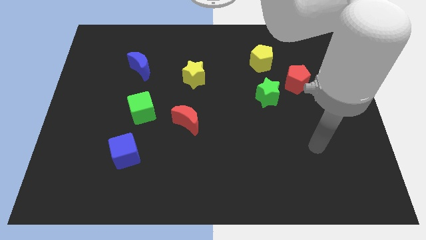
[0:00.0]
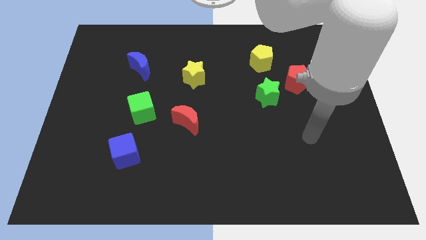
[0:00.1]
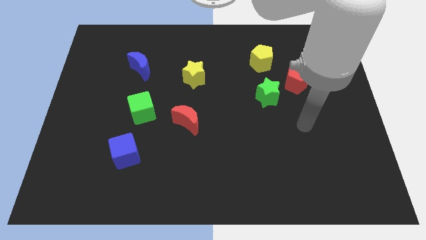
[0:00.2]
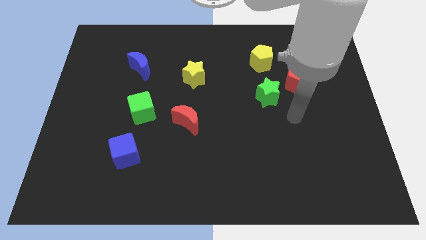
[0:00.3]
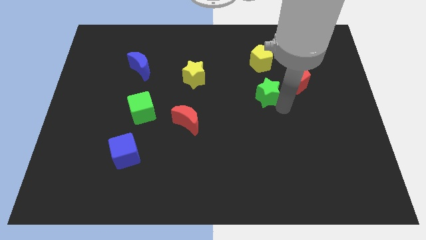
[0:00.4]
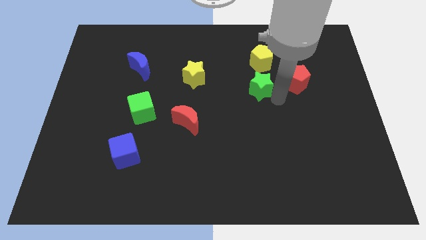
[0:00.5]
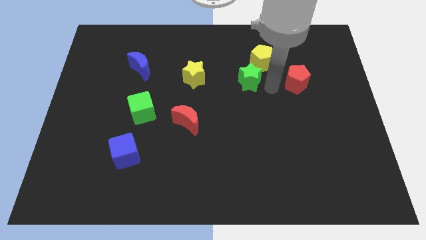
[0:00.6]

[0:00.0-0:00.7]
move the red pentagon away from the green star

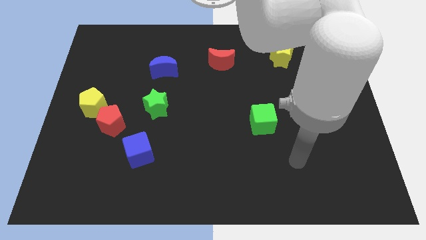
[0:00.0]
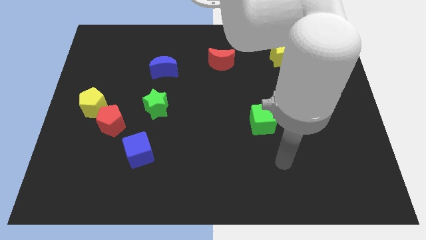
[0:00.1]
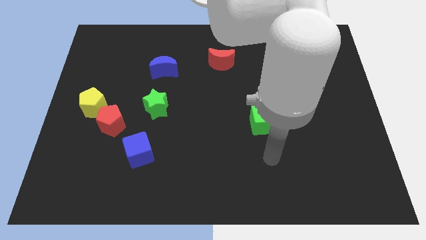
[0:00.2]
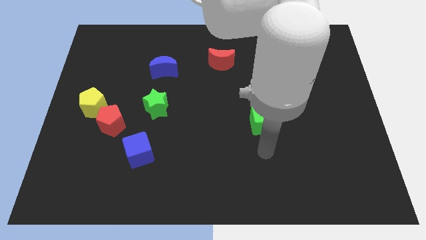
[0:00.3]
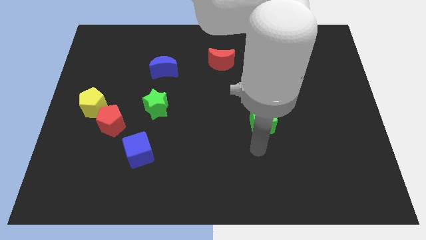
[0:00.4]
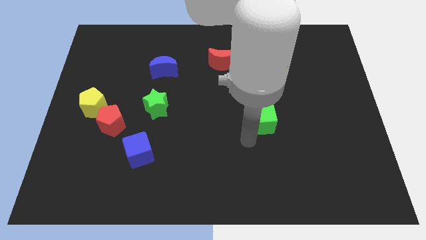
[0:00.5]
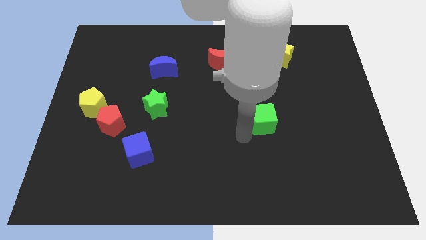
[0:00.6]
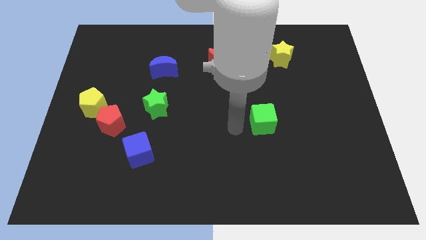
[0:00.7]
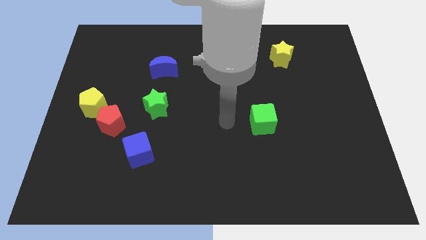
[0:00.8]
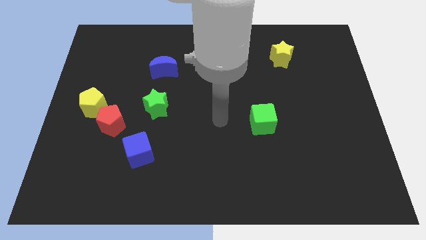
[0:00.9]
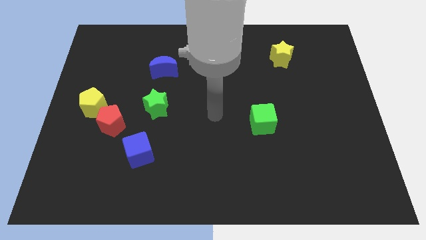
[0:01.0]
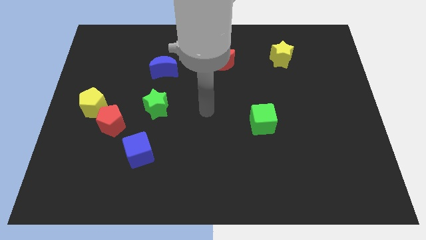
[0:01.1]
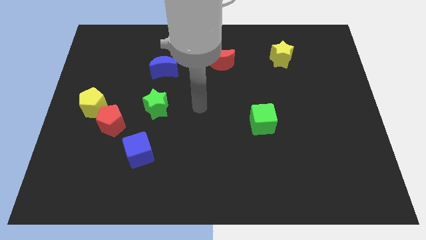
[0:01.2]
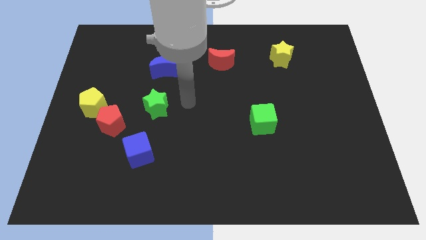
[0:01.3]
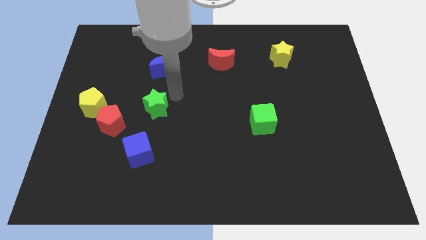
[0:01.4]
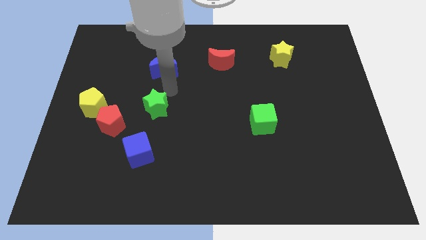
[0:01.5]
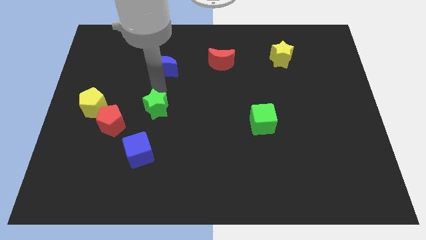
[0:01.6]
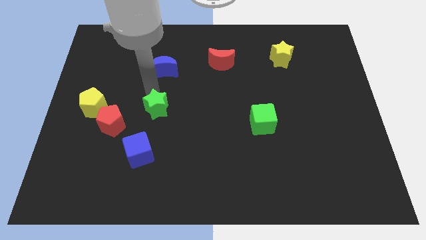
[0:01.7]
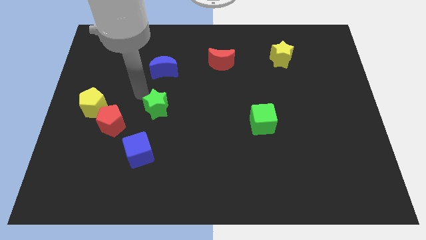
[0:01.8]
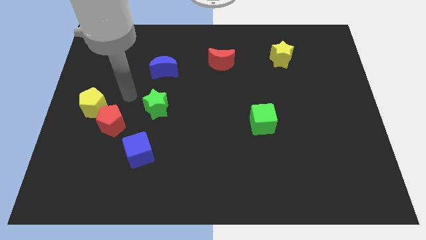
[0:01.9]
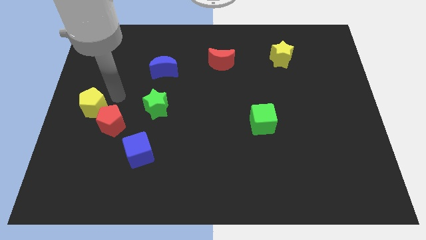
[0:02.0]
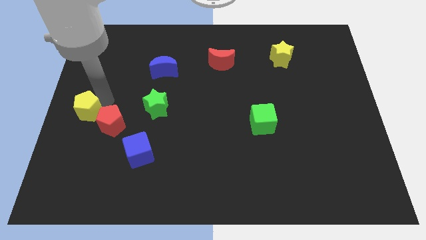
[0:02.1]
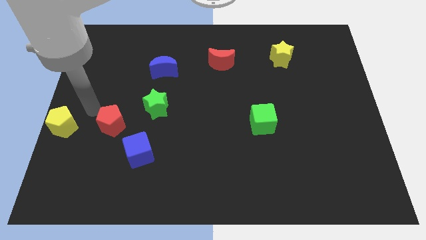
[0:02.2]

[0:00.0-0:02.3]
separate the red pentagon from the yellow pentagon

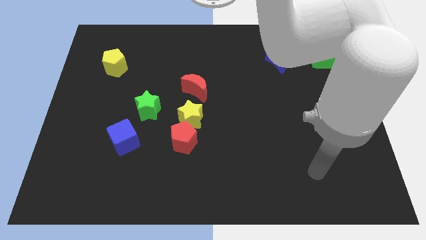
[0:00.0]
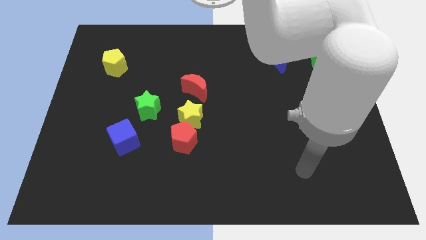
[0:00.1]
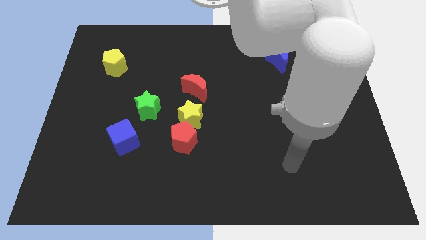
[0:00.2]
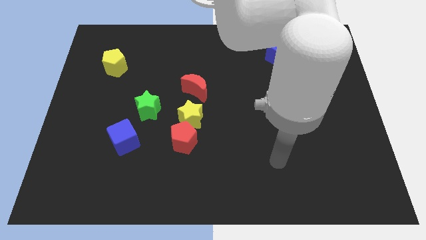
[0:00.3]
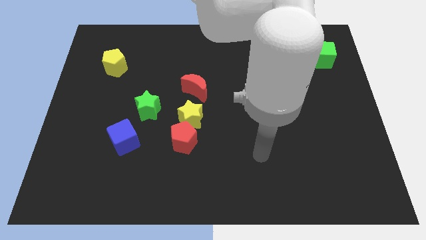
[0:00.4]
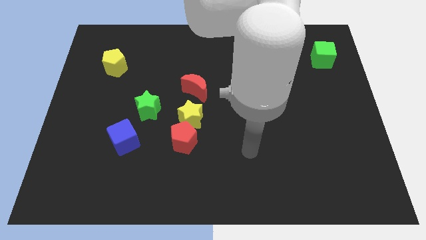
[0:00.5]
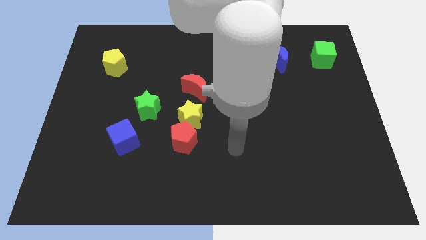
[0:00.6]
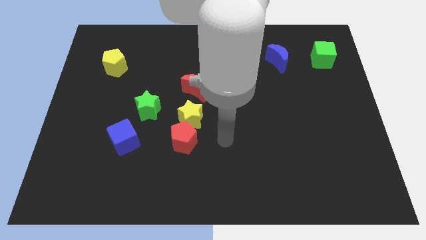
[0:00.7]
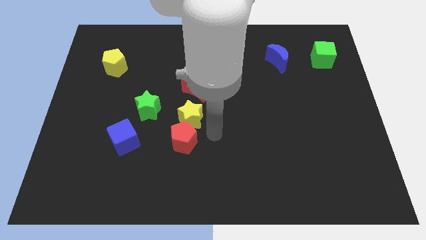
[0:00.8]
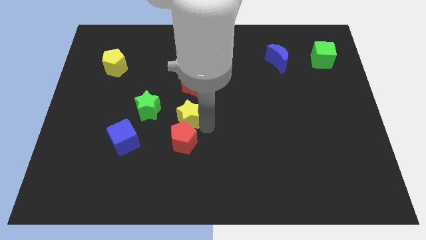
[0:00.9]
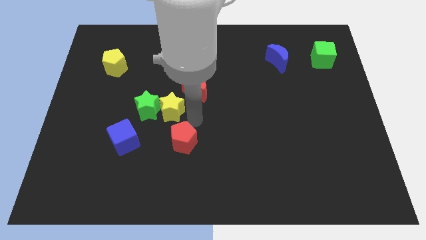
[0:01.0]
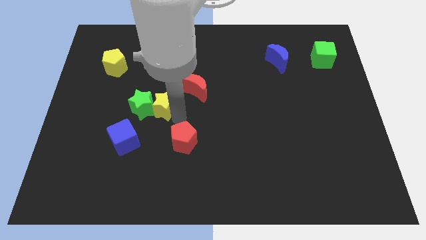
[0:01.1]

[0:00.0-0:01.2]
pull the red pentagon apart from the yellow star

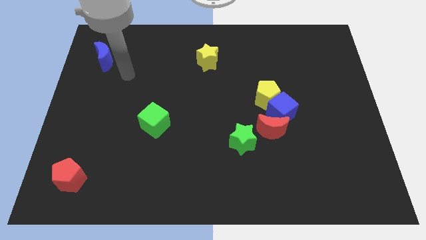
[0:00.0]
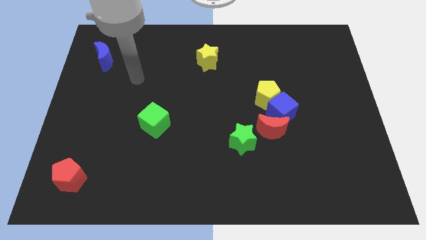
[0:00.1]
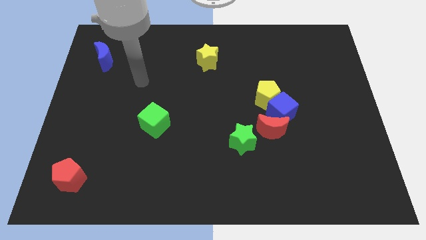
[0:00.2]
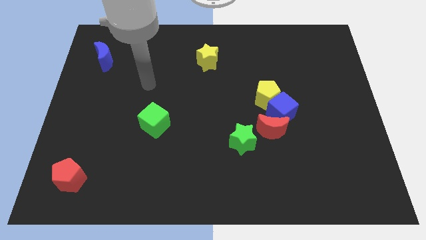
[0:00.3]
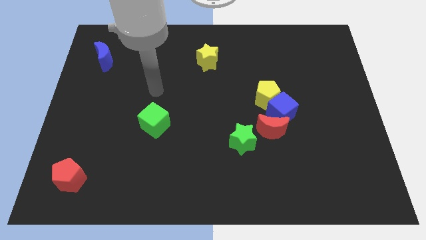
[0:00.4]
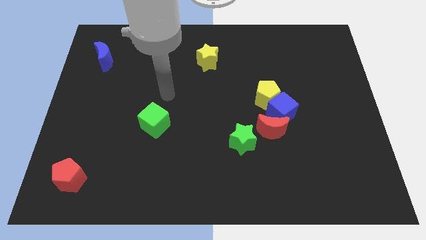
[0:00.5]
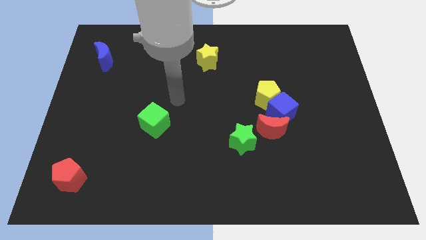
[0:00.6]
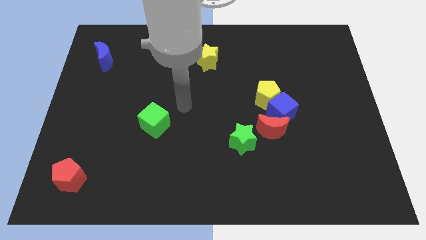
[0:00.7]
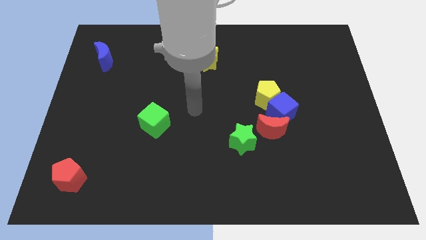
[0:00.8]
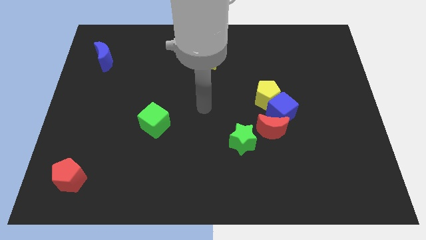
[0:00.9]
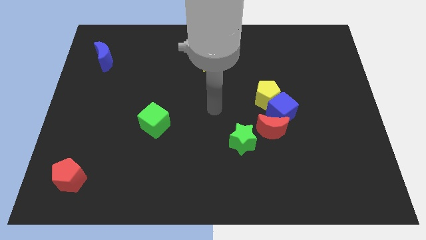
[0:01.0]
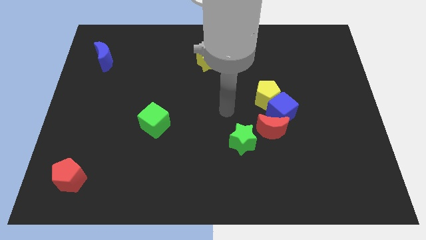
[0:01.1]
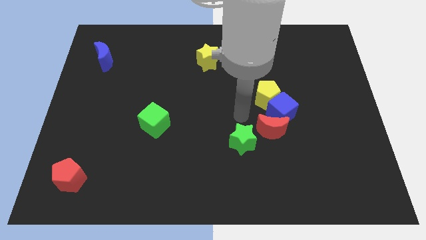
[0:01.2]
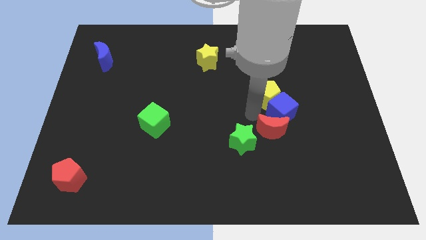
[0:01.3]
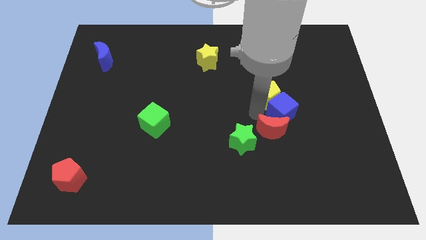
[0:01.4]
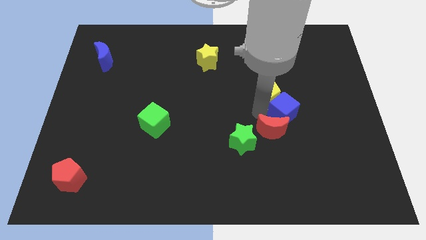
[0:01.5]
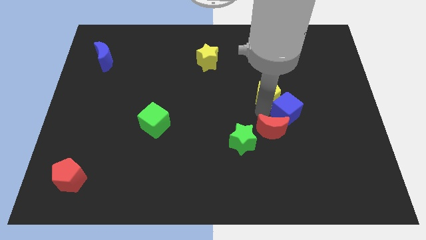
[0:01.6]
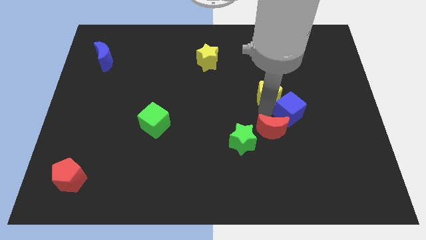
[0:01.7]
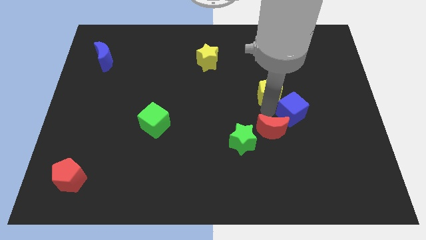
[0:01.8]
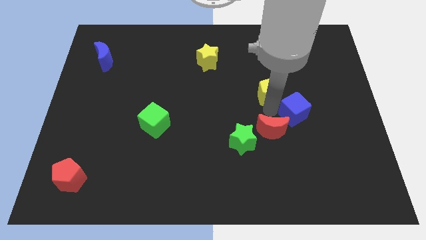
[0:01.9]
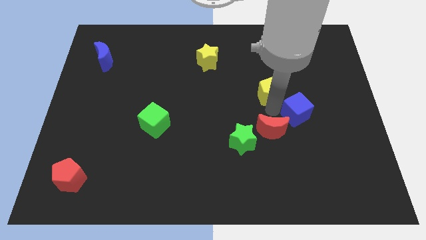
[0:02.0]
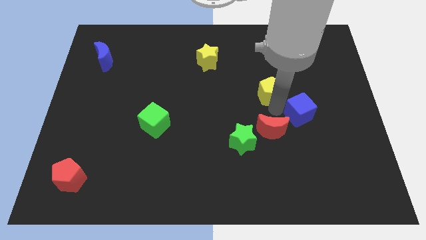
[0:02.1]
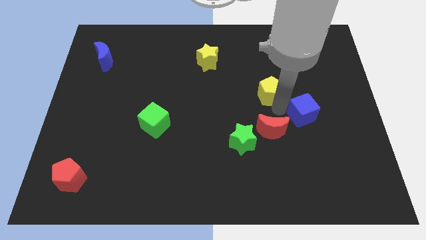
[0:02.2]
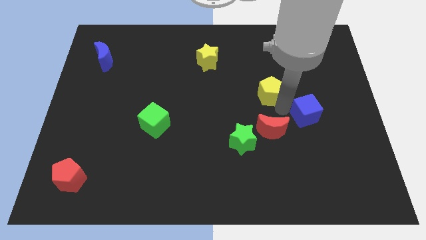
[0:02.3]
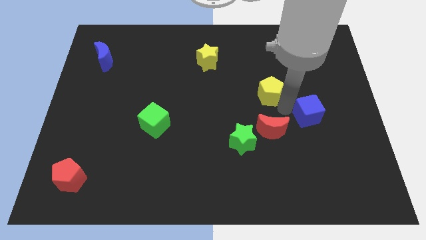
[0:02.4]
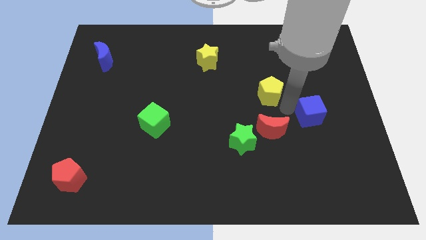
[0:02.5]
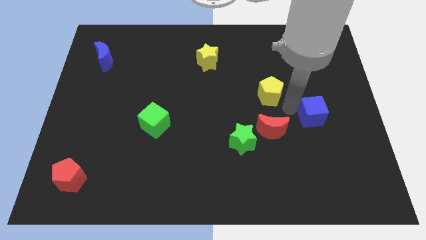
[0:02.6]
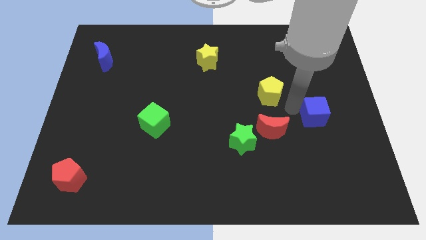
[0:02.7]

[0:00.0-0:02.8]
move the blue cube away from the yellow pentagon and red moon

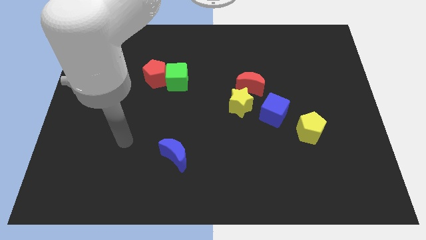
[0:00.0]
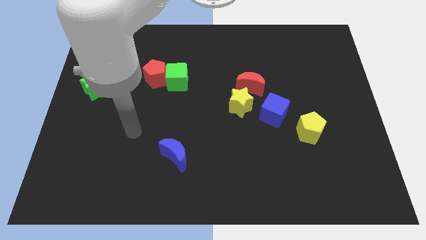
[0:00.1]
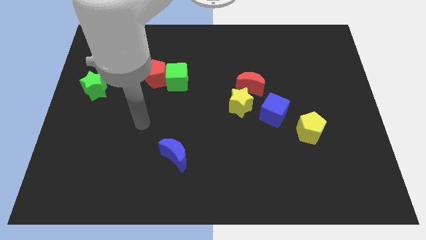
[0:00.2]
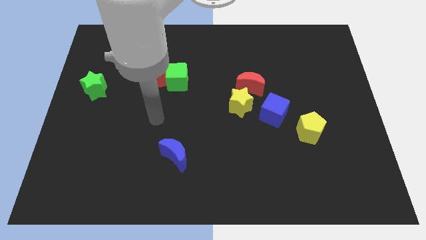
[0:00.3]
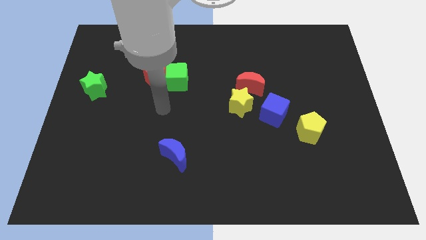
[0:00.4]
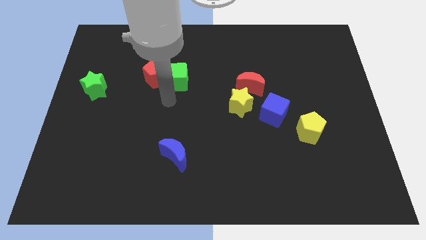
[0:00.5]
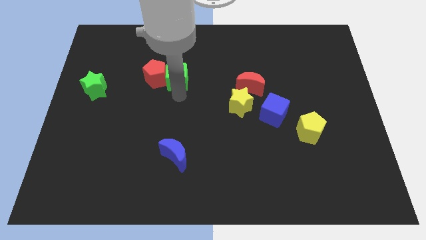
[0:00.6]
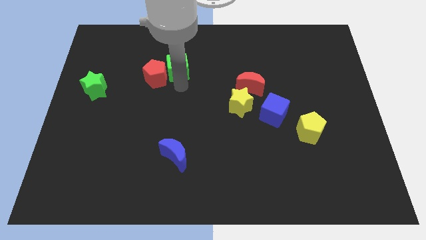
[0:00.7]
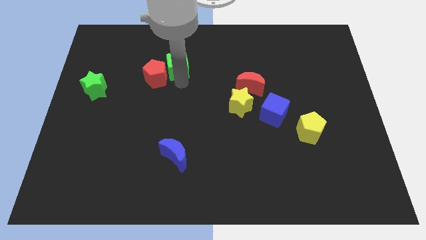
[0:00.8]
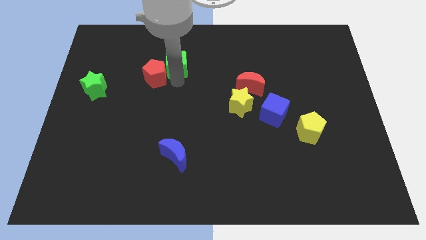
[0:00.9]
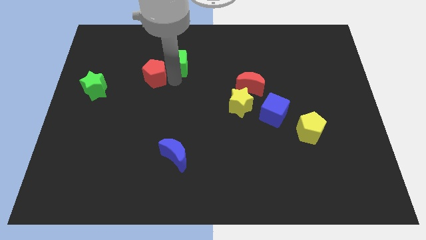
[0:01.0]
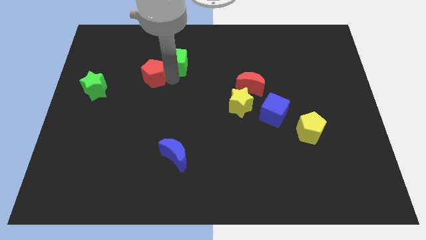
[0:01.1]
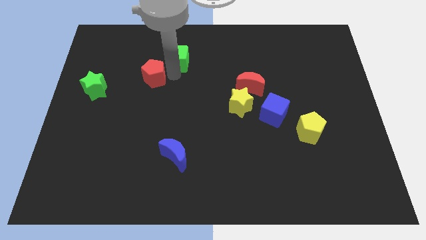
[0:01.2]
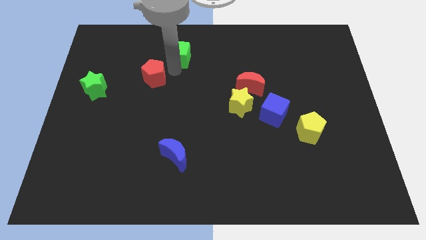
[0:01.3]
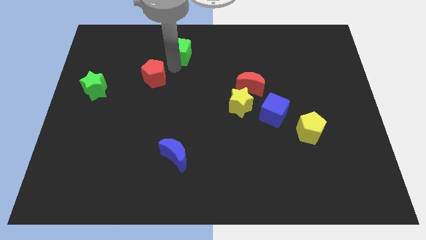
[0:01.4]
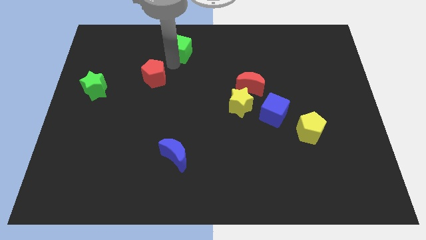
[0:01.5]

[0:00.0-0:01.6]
separate the red pentagon from the green cube

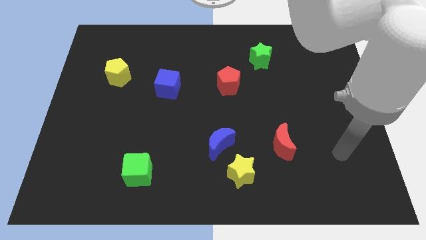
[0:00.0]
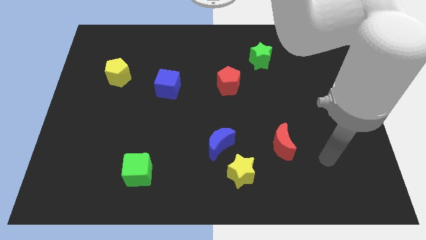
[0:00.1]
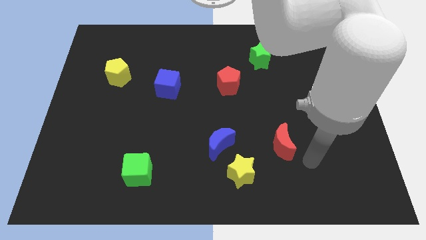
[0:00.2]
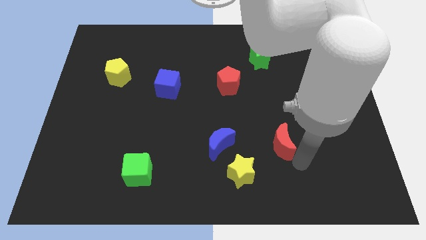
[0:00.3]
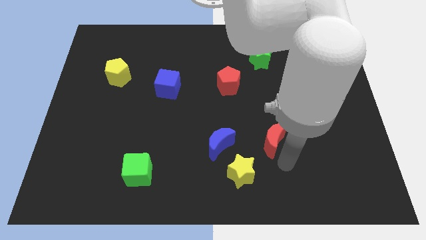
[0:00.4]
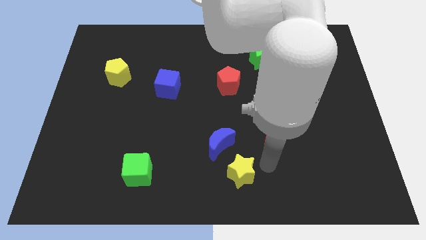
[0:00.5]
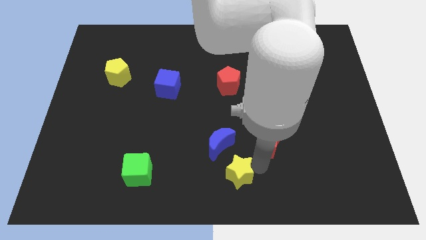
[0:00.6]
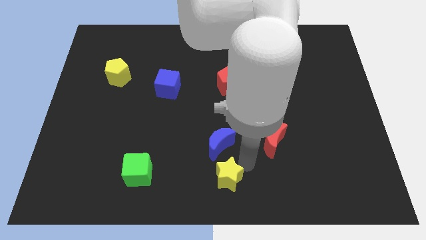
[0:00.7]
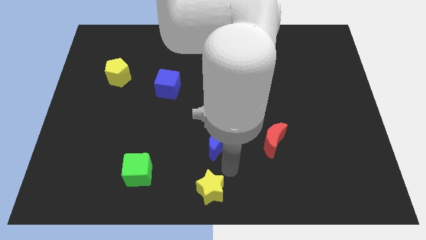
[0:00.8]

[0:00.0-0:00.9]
separate the blue moon from the yellow star
